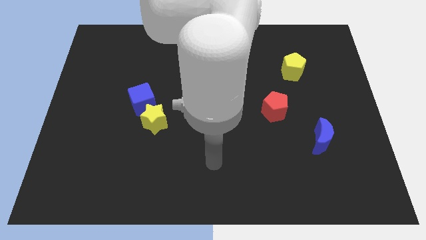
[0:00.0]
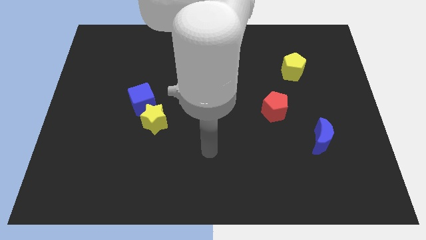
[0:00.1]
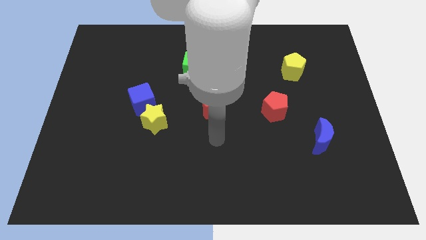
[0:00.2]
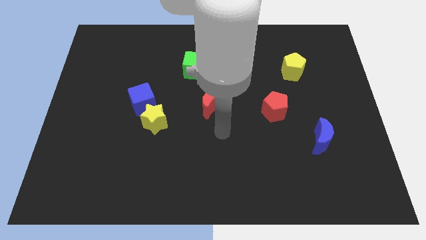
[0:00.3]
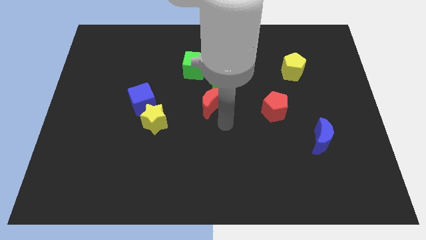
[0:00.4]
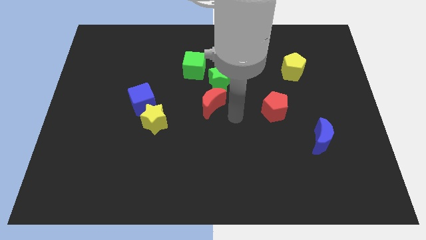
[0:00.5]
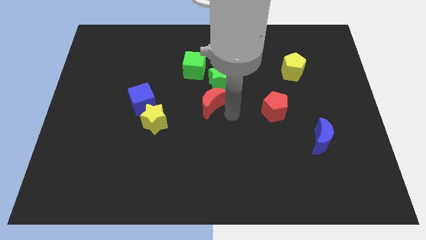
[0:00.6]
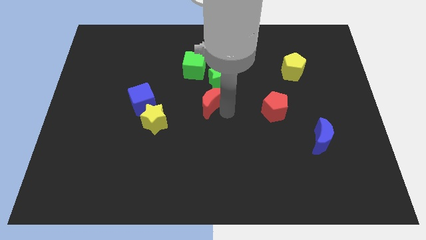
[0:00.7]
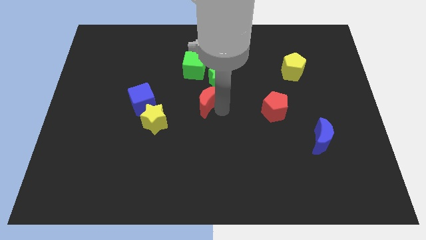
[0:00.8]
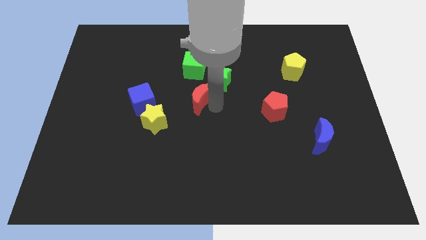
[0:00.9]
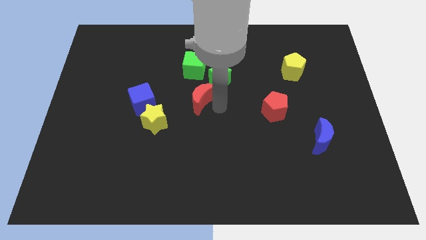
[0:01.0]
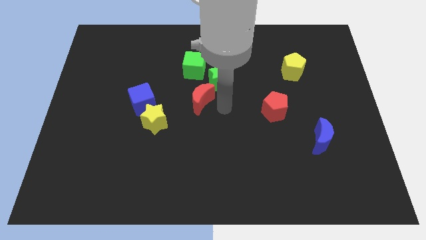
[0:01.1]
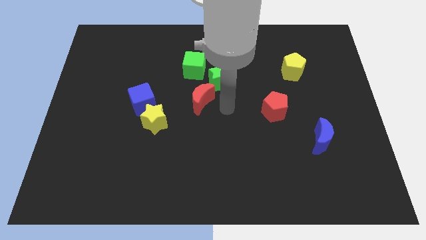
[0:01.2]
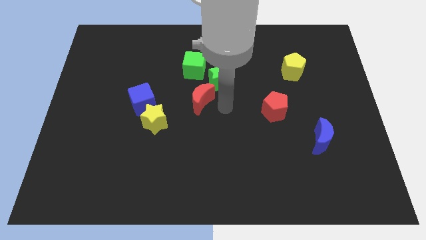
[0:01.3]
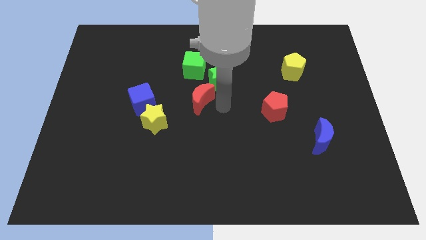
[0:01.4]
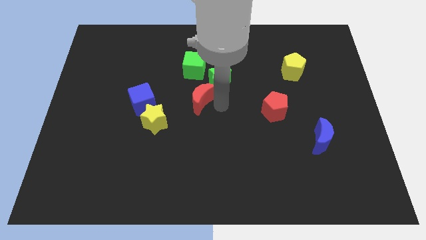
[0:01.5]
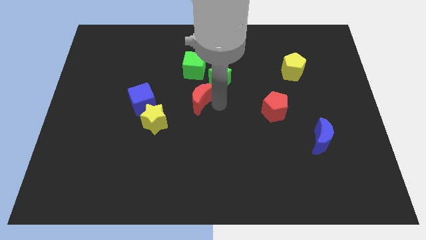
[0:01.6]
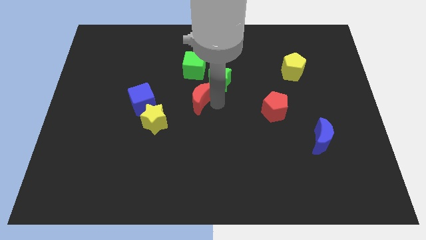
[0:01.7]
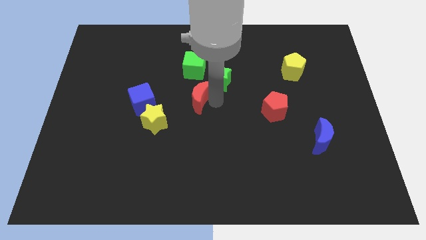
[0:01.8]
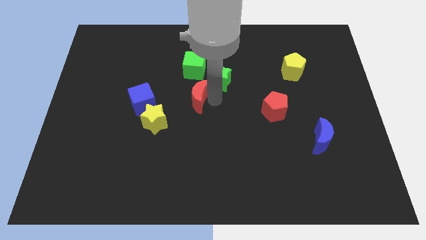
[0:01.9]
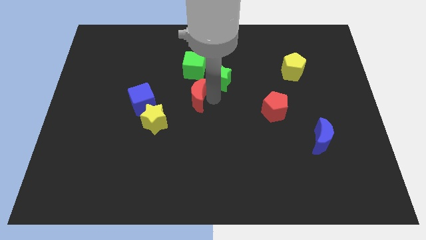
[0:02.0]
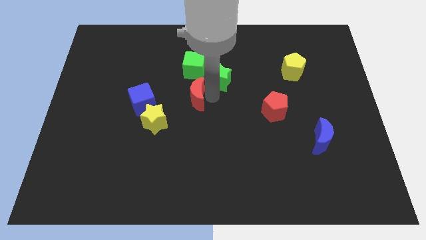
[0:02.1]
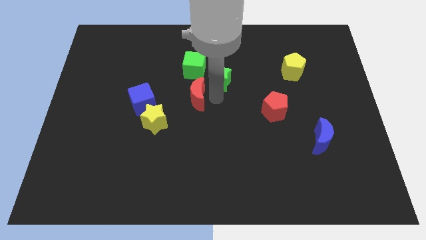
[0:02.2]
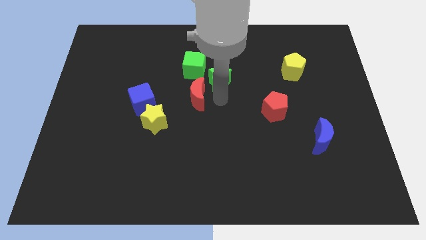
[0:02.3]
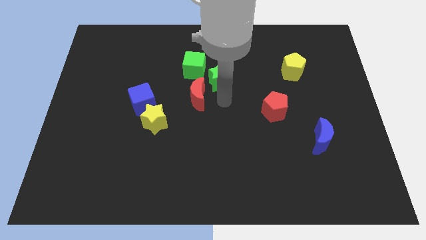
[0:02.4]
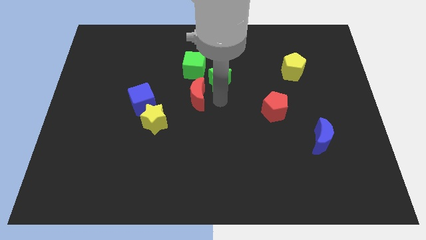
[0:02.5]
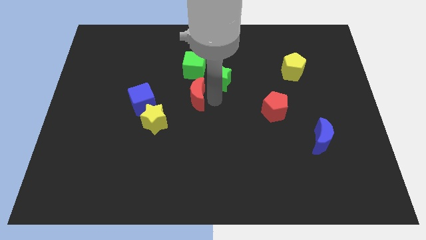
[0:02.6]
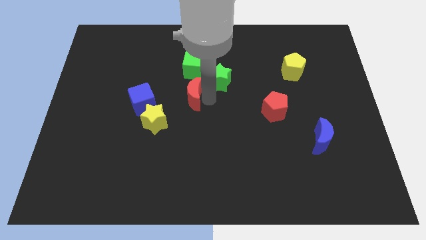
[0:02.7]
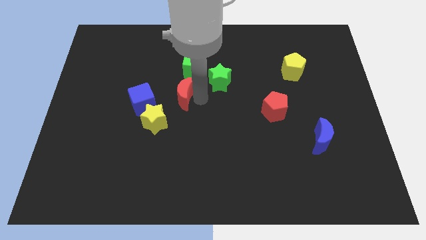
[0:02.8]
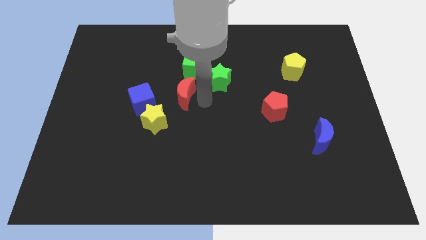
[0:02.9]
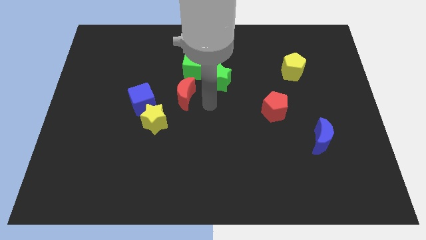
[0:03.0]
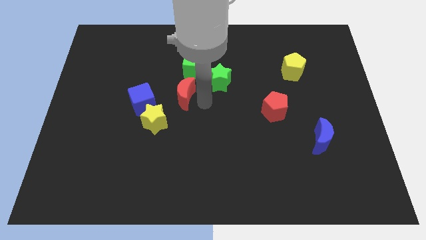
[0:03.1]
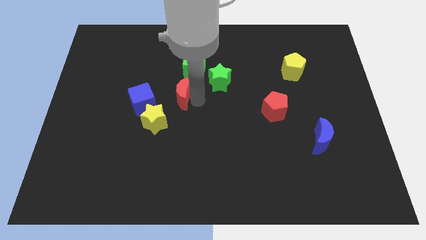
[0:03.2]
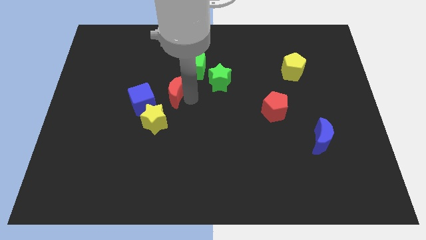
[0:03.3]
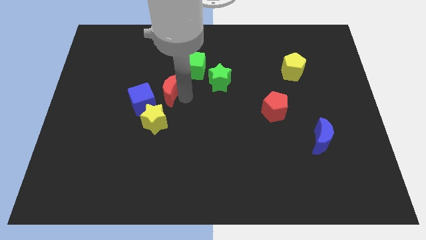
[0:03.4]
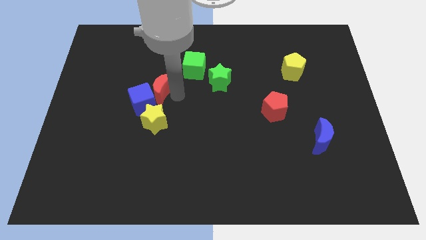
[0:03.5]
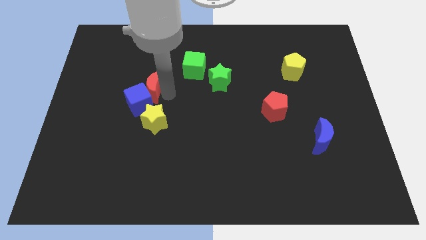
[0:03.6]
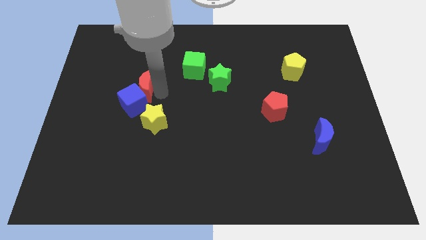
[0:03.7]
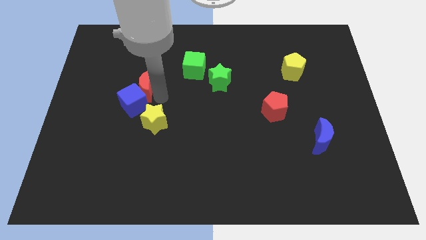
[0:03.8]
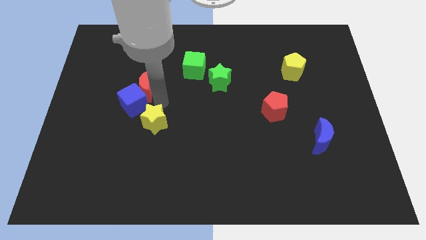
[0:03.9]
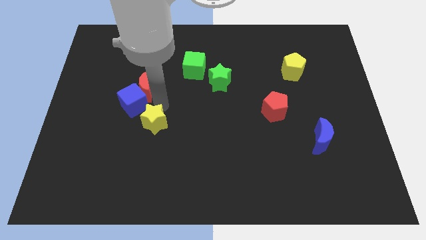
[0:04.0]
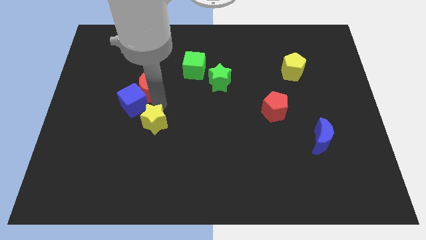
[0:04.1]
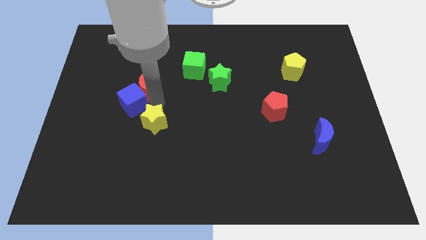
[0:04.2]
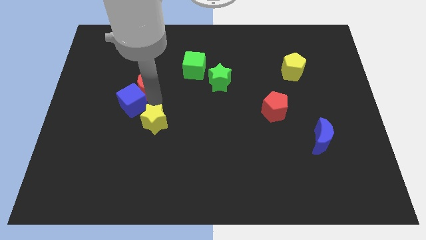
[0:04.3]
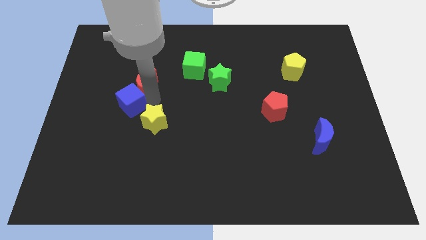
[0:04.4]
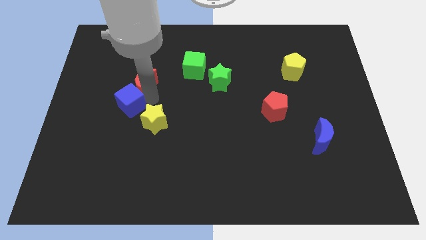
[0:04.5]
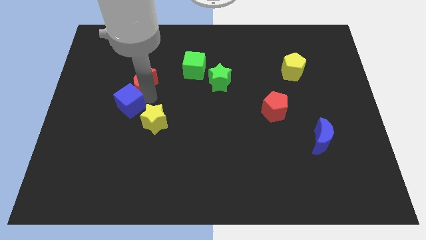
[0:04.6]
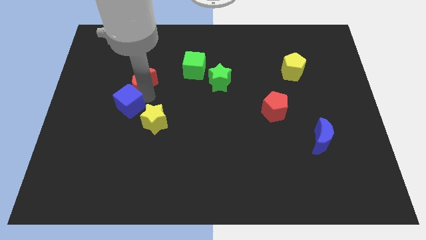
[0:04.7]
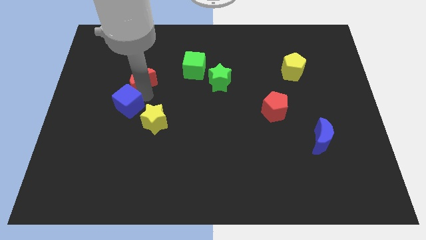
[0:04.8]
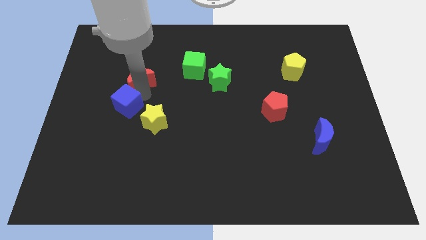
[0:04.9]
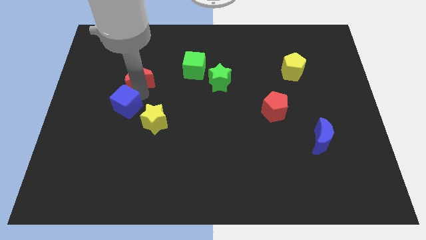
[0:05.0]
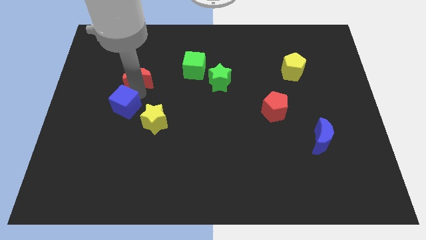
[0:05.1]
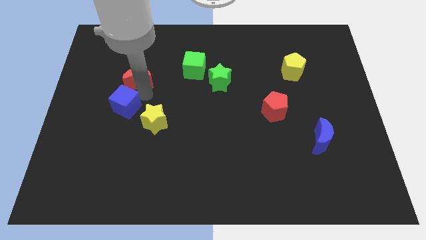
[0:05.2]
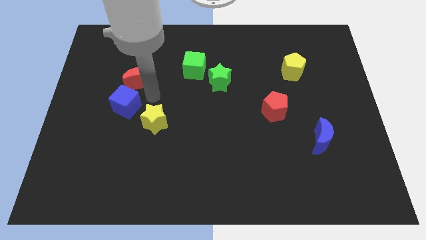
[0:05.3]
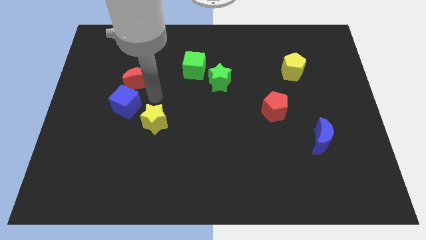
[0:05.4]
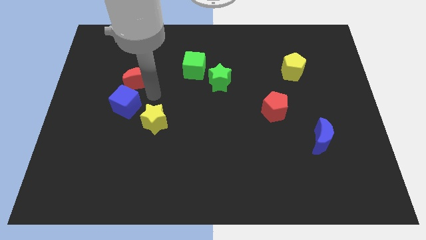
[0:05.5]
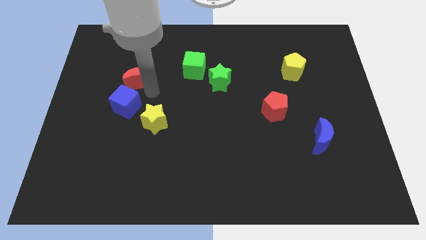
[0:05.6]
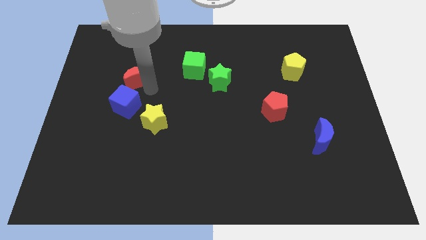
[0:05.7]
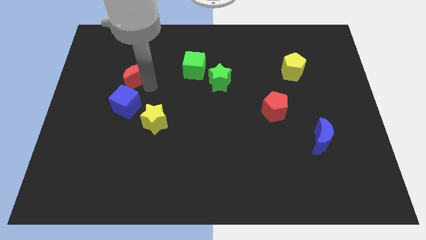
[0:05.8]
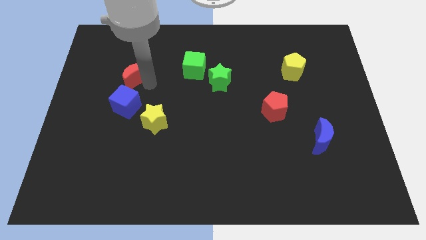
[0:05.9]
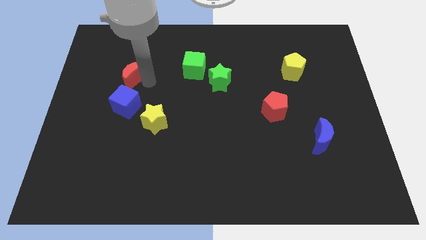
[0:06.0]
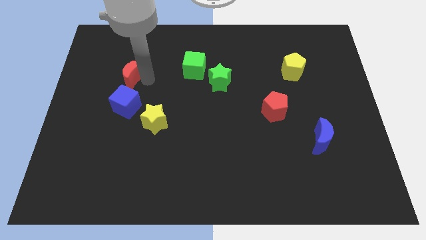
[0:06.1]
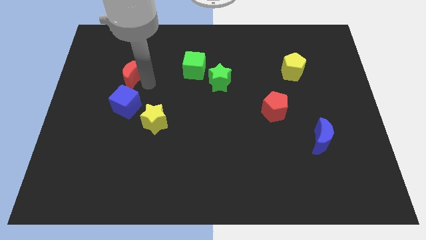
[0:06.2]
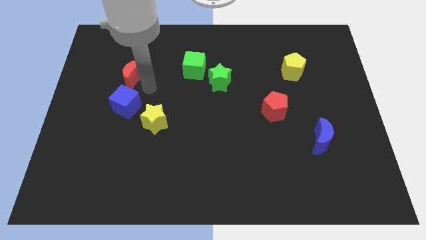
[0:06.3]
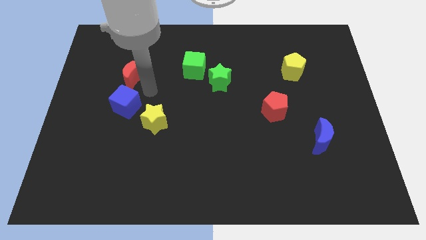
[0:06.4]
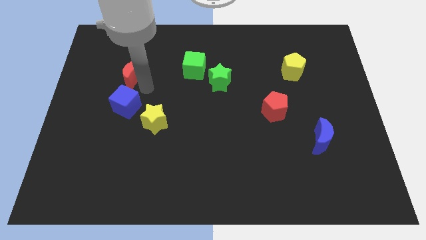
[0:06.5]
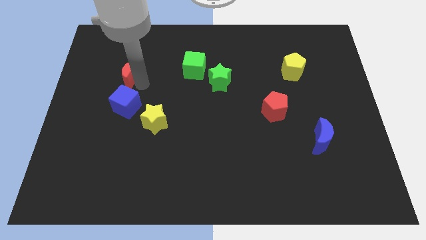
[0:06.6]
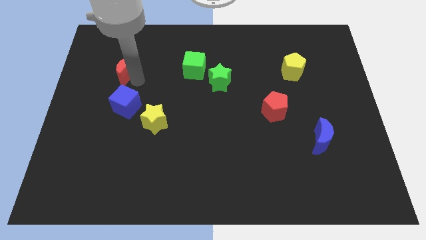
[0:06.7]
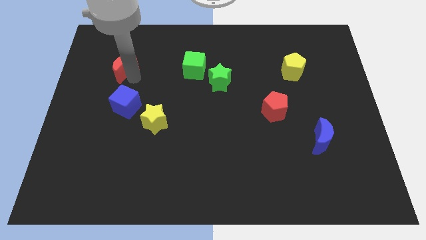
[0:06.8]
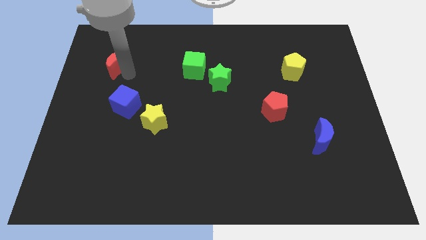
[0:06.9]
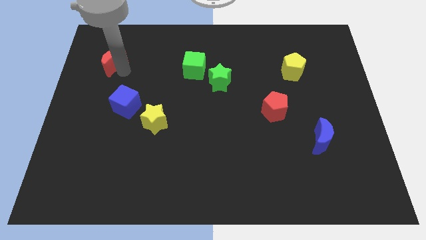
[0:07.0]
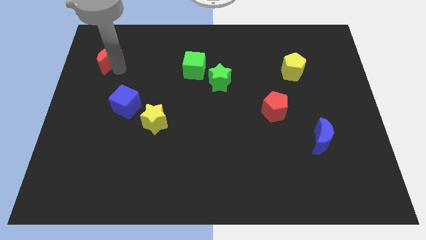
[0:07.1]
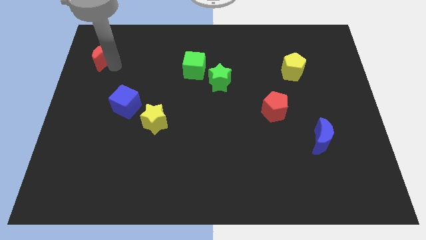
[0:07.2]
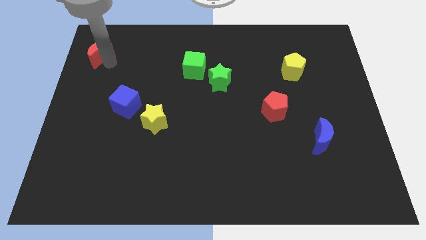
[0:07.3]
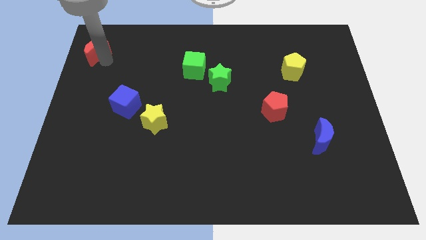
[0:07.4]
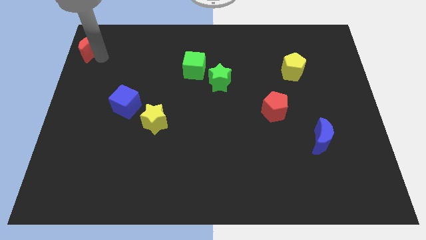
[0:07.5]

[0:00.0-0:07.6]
put the red moon to the upper left corner
